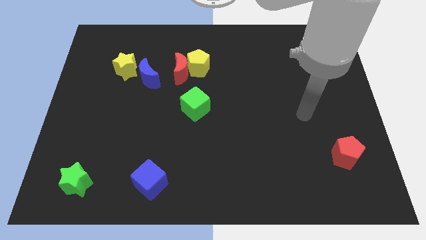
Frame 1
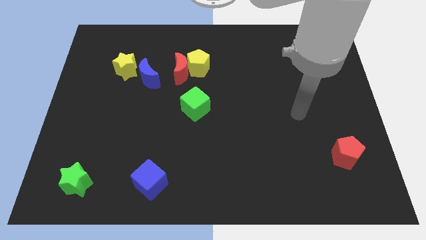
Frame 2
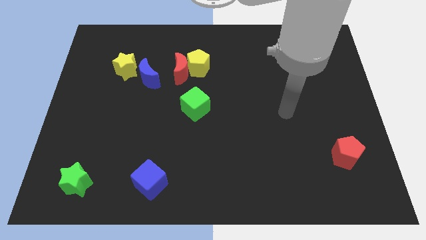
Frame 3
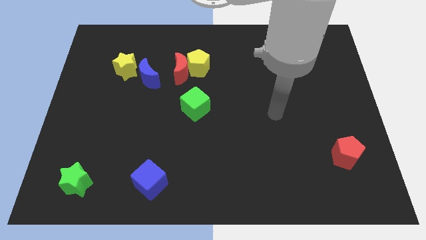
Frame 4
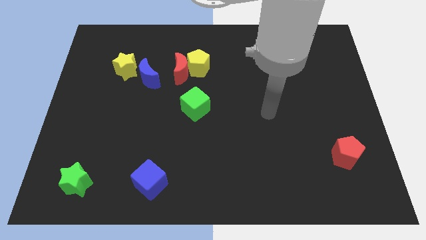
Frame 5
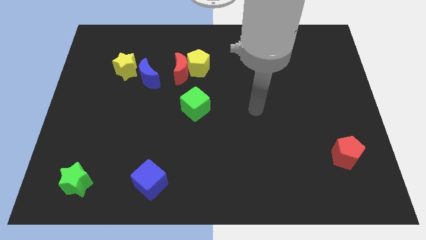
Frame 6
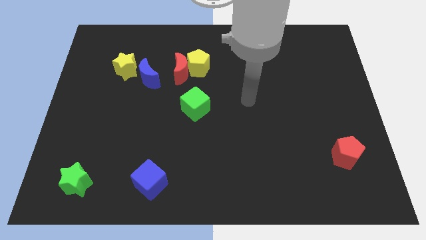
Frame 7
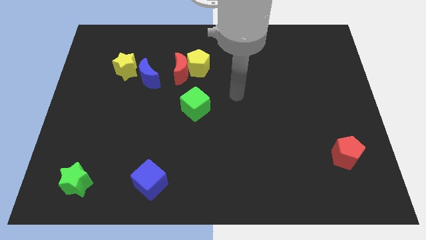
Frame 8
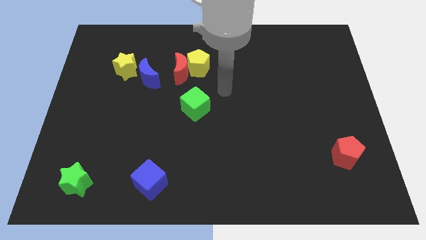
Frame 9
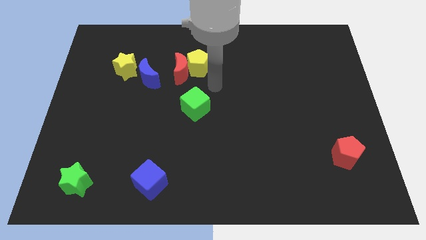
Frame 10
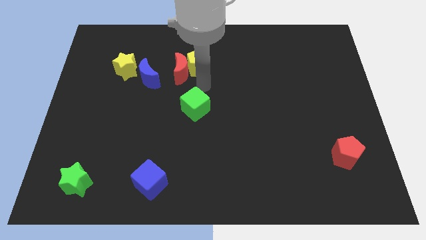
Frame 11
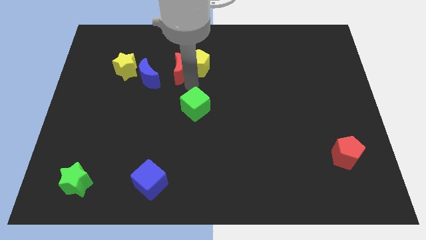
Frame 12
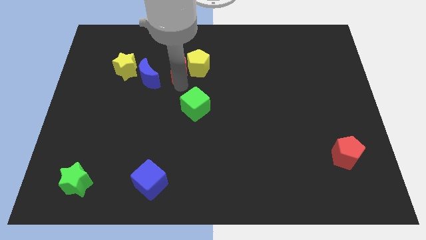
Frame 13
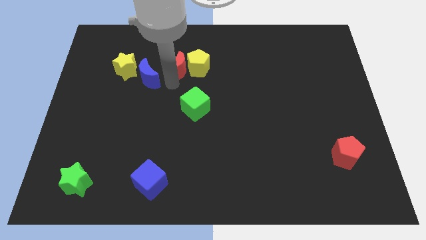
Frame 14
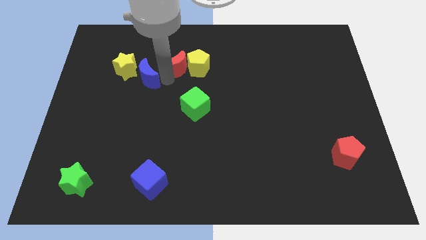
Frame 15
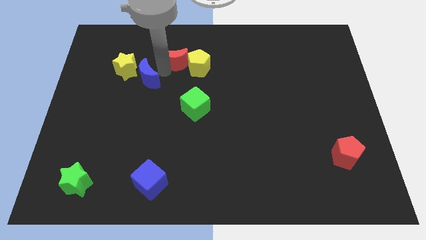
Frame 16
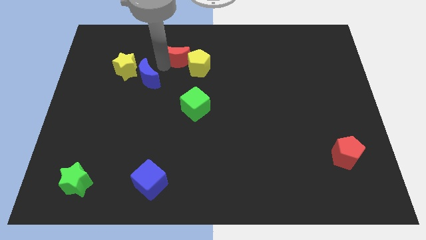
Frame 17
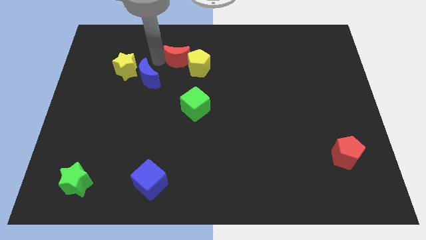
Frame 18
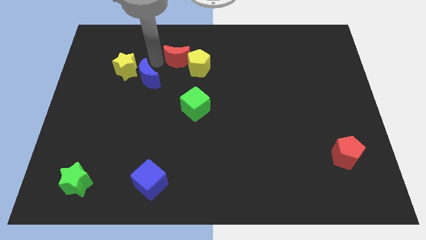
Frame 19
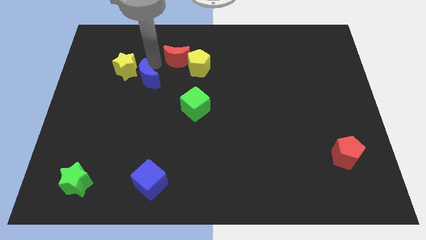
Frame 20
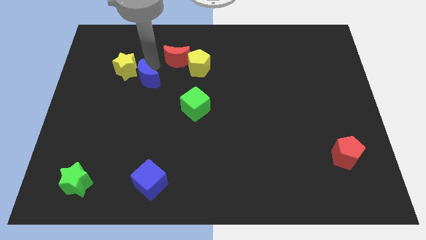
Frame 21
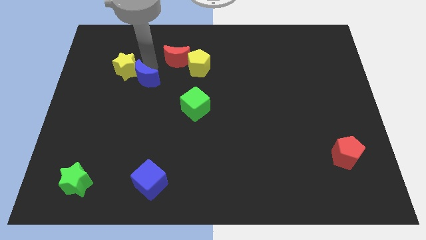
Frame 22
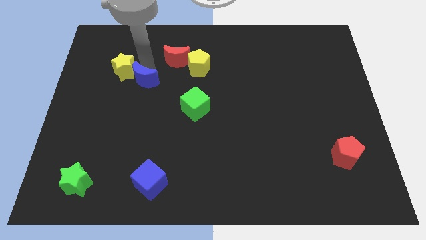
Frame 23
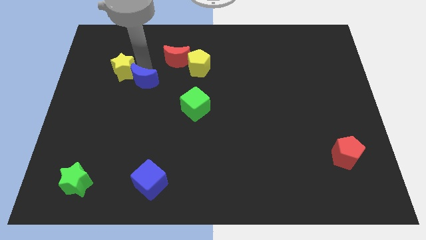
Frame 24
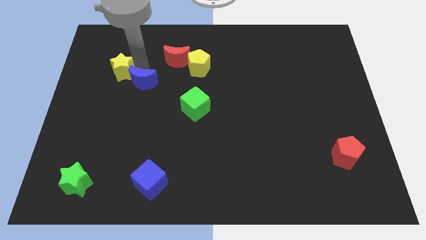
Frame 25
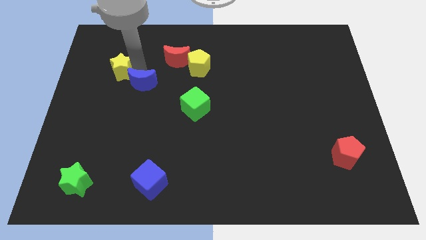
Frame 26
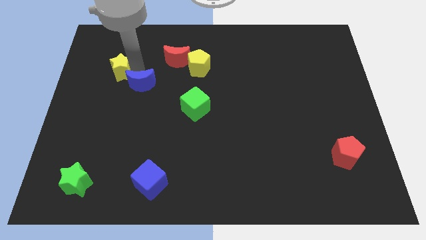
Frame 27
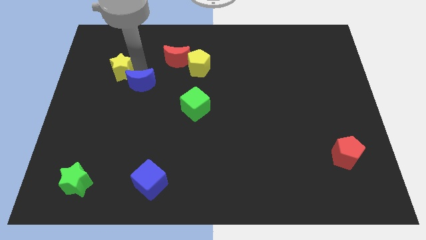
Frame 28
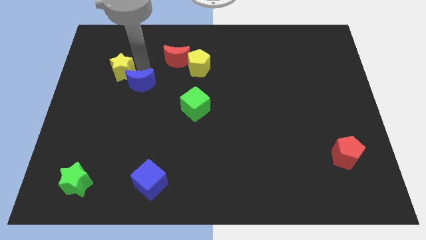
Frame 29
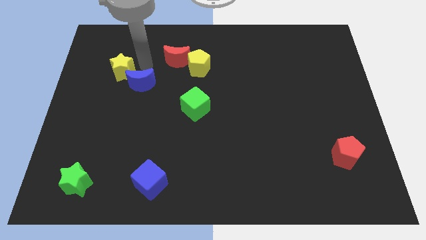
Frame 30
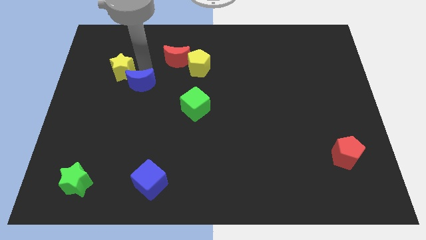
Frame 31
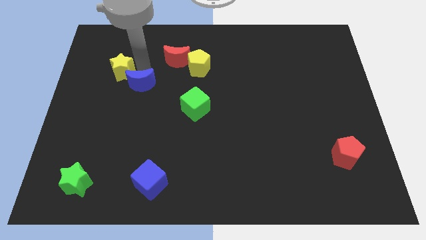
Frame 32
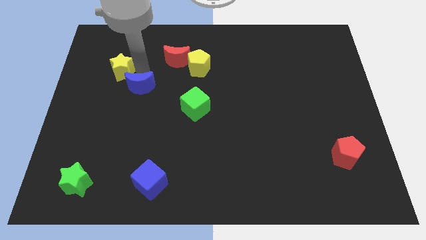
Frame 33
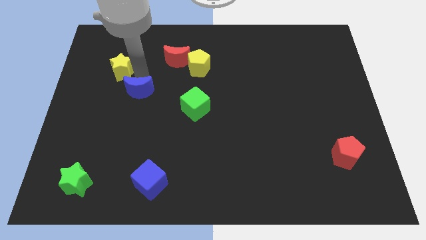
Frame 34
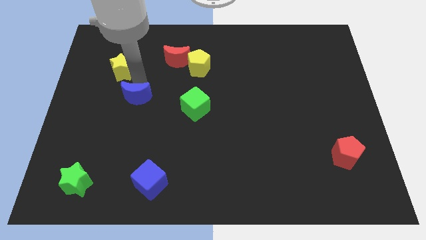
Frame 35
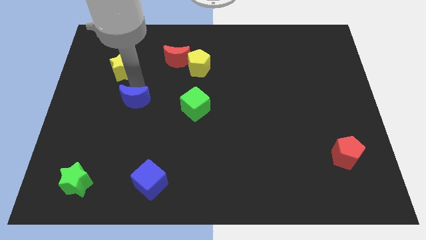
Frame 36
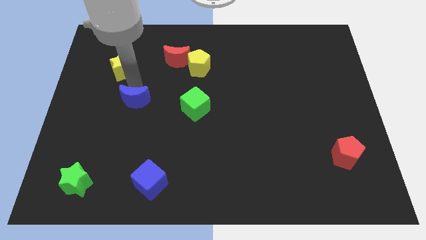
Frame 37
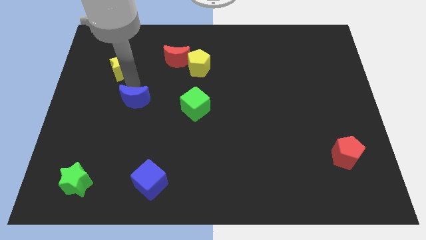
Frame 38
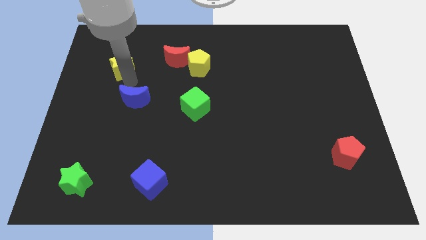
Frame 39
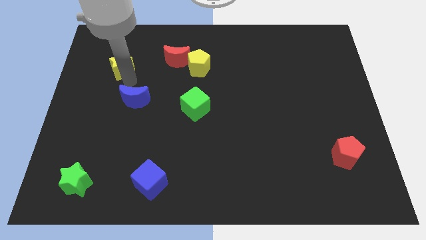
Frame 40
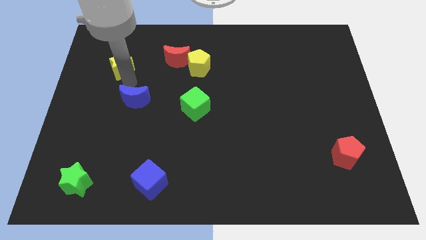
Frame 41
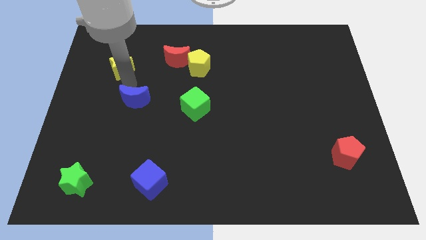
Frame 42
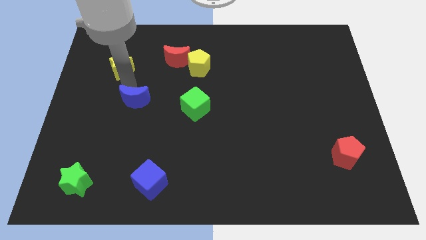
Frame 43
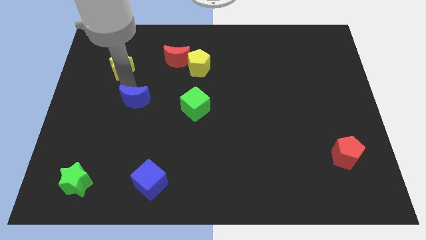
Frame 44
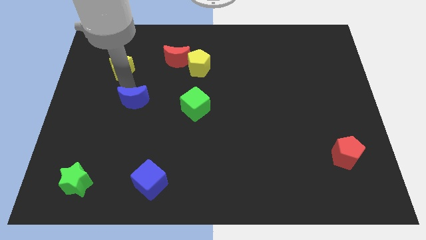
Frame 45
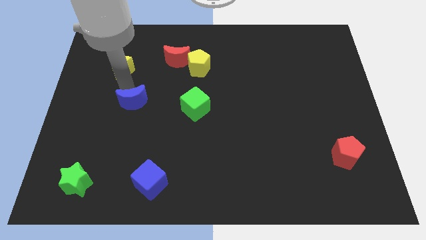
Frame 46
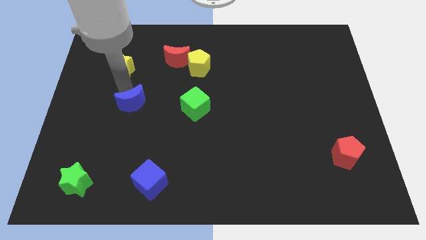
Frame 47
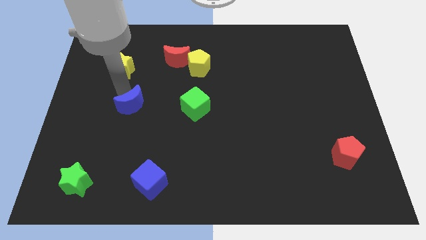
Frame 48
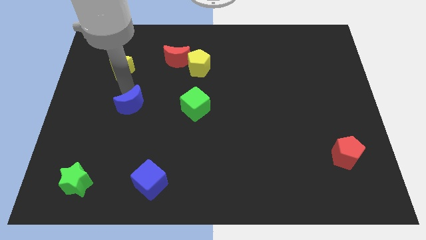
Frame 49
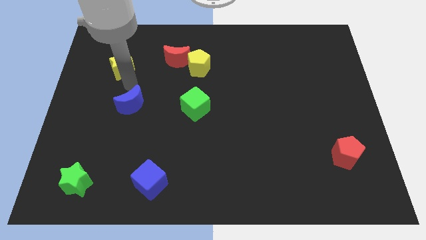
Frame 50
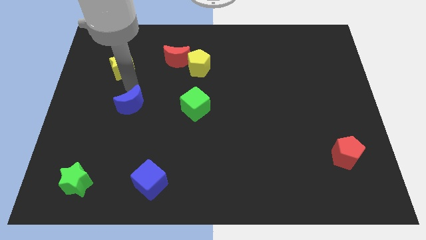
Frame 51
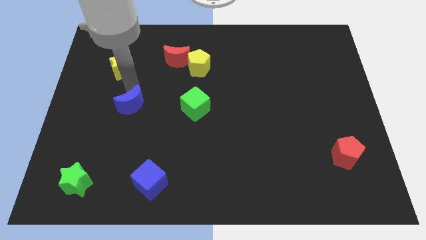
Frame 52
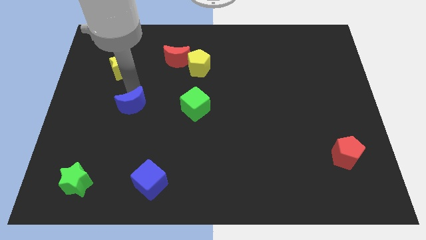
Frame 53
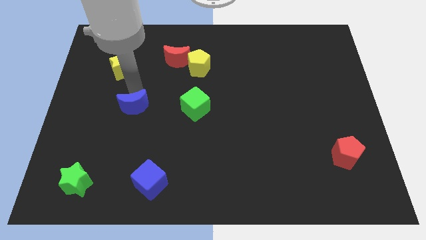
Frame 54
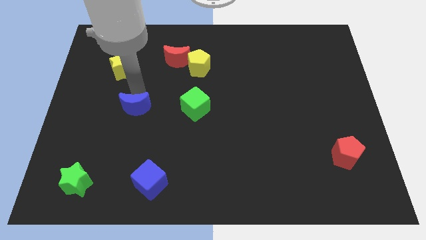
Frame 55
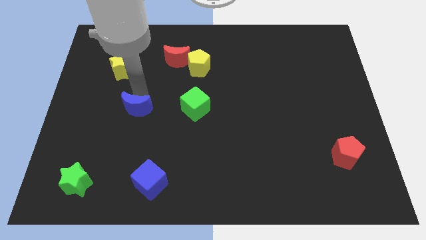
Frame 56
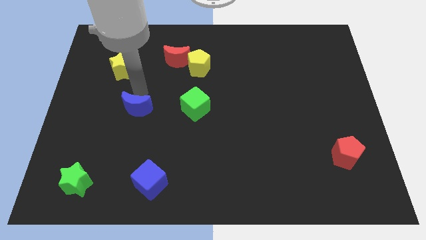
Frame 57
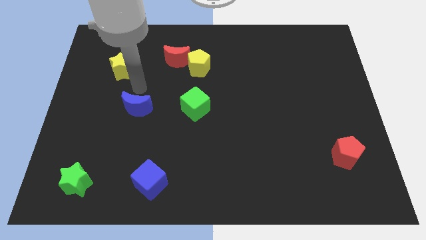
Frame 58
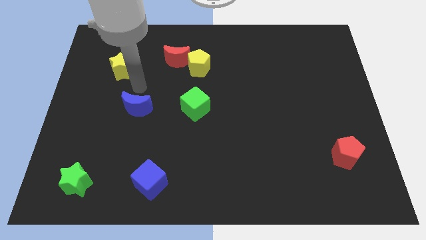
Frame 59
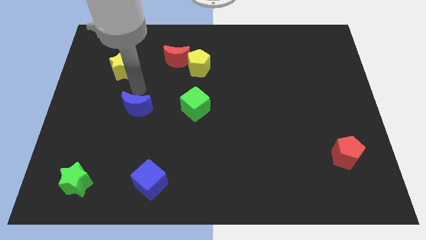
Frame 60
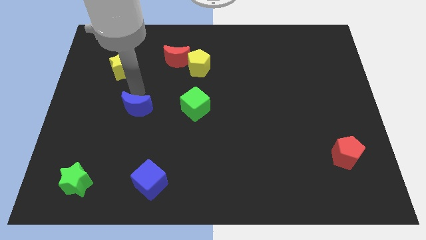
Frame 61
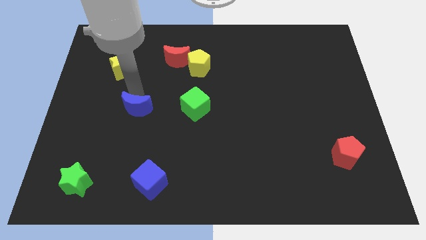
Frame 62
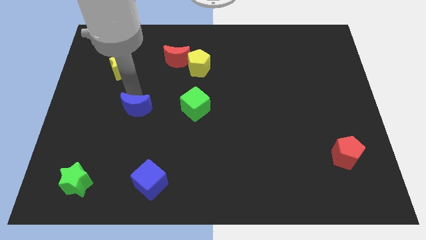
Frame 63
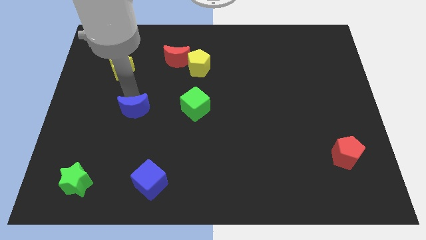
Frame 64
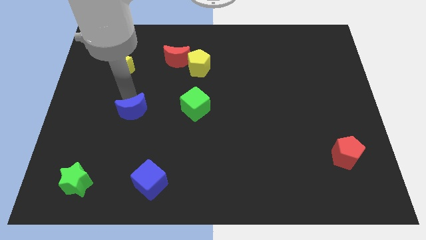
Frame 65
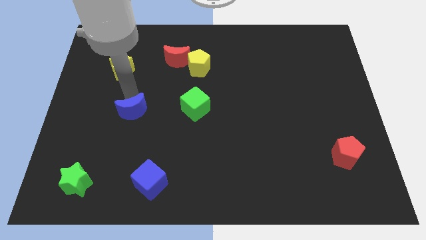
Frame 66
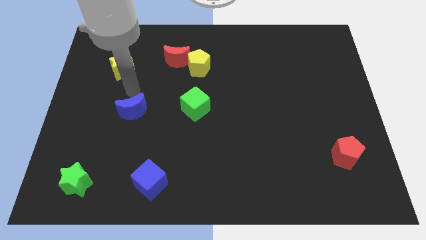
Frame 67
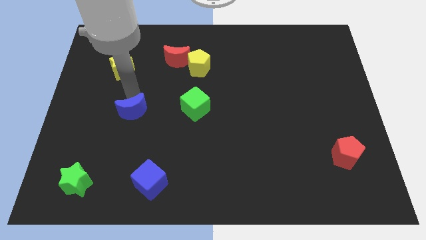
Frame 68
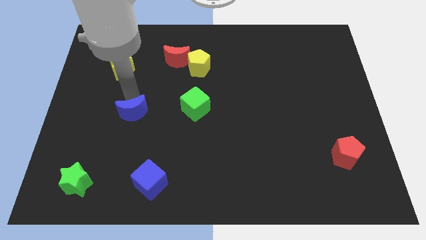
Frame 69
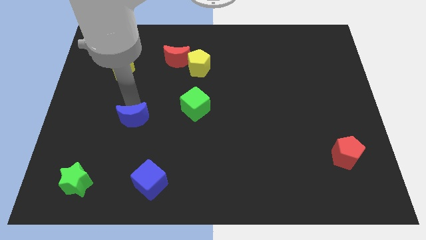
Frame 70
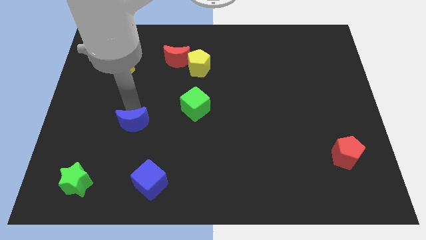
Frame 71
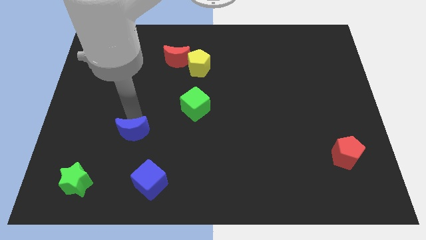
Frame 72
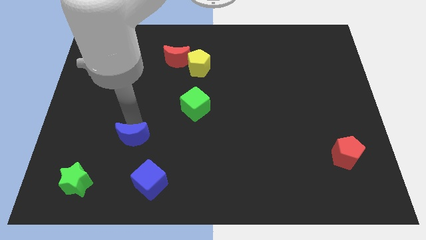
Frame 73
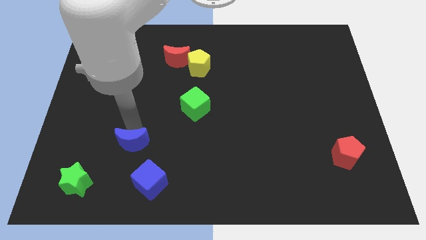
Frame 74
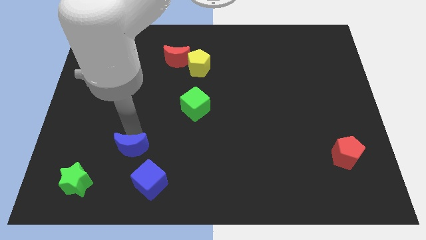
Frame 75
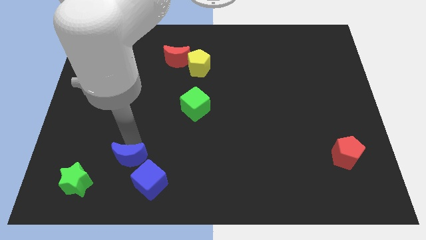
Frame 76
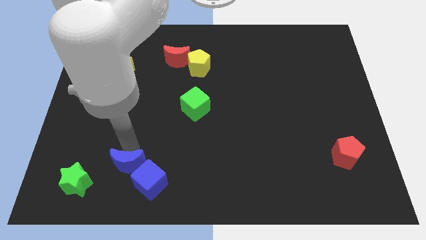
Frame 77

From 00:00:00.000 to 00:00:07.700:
push the blue moon right of the green star
